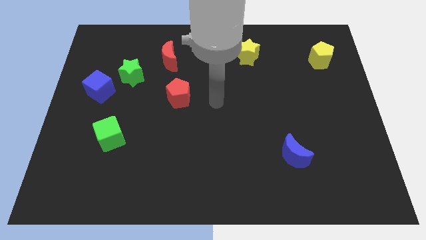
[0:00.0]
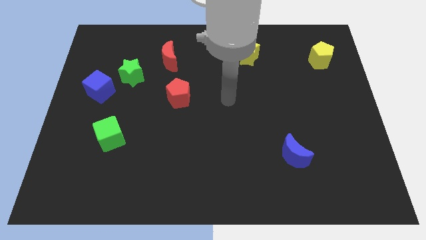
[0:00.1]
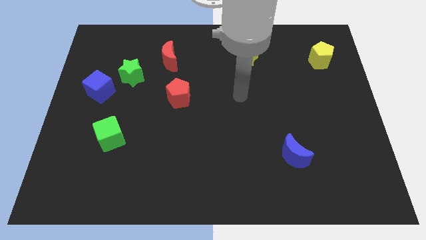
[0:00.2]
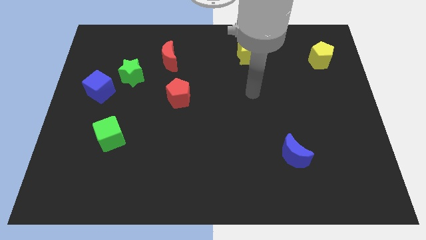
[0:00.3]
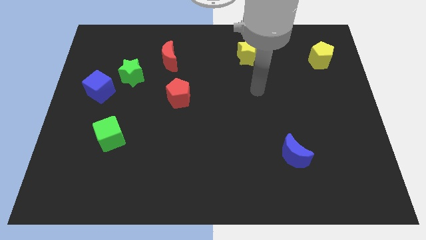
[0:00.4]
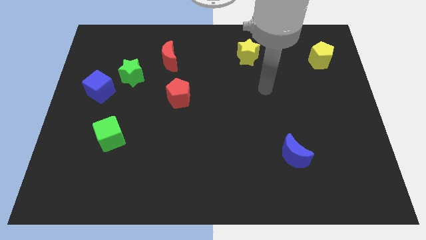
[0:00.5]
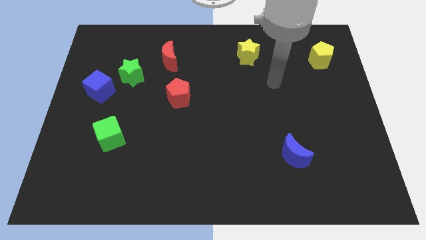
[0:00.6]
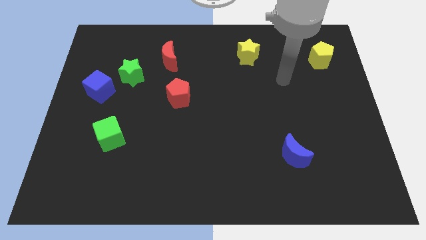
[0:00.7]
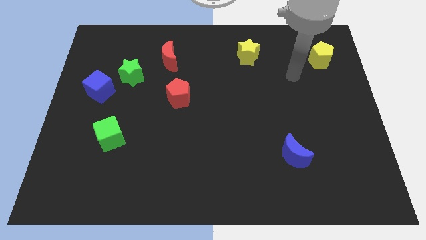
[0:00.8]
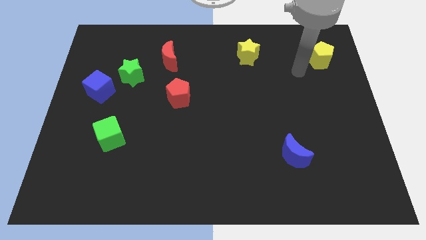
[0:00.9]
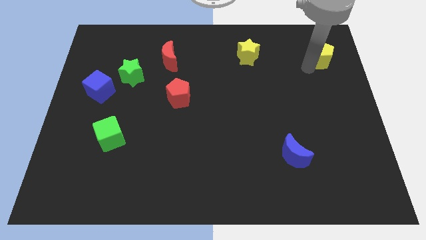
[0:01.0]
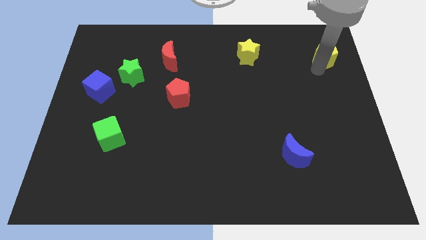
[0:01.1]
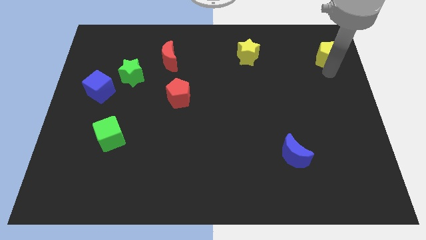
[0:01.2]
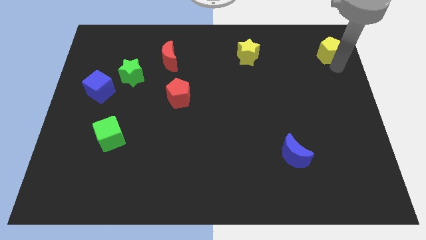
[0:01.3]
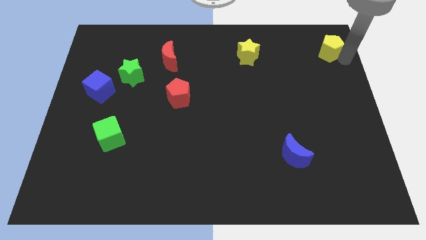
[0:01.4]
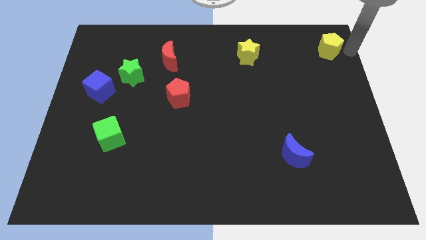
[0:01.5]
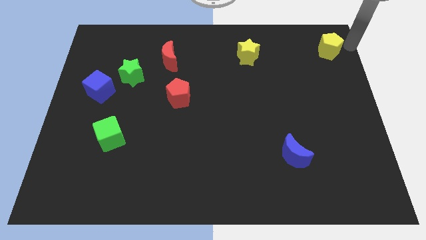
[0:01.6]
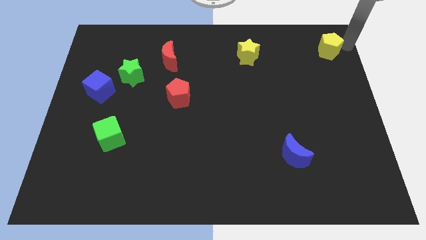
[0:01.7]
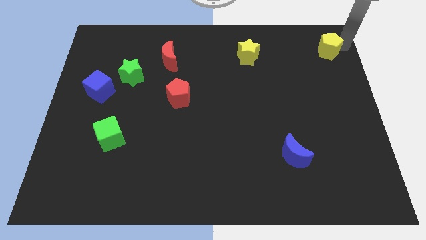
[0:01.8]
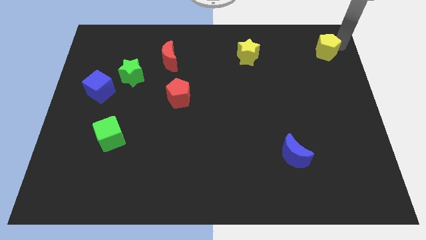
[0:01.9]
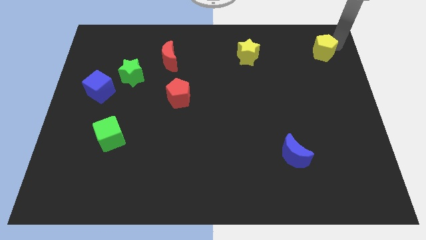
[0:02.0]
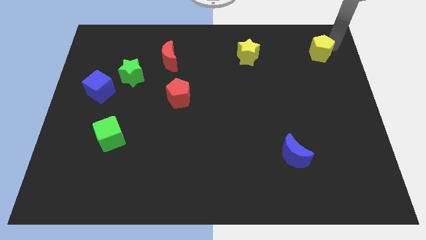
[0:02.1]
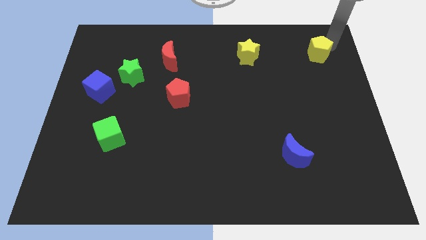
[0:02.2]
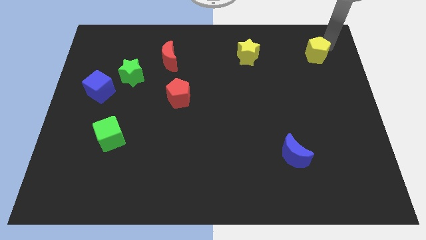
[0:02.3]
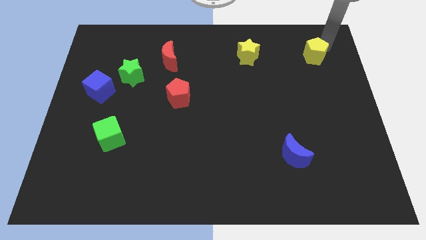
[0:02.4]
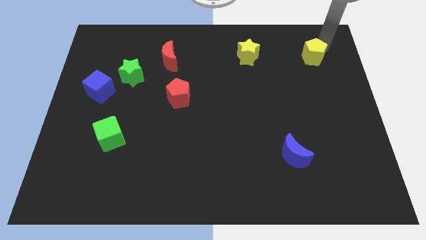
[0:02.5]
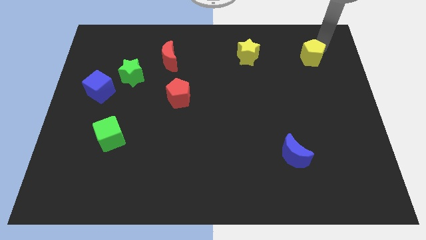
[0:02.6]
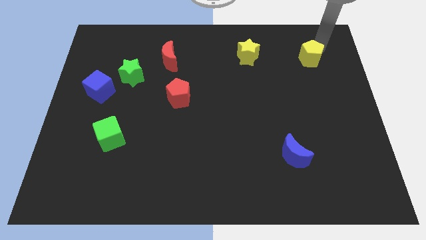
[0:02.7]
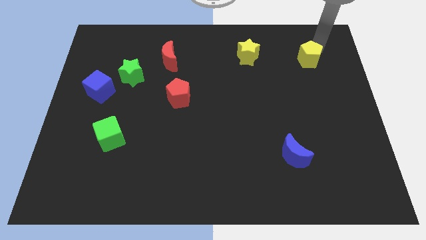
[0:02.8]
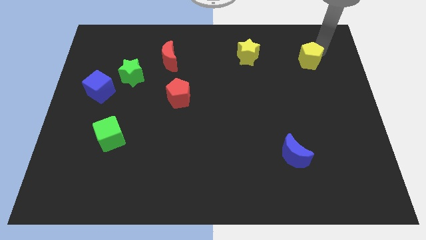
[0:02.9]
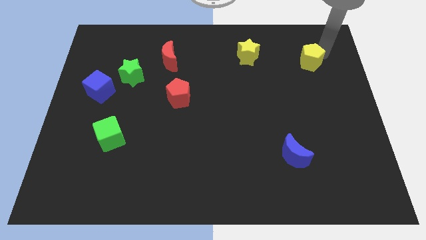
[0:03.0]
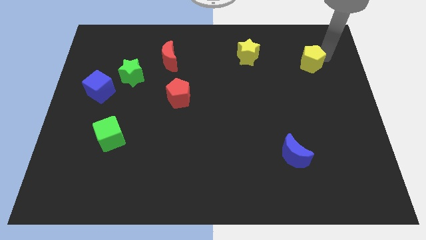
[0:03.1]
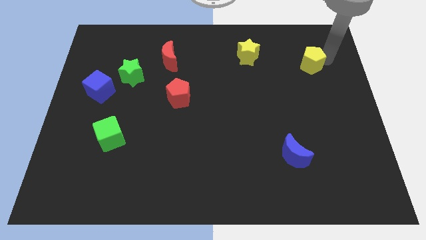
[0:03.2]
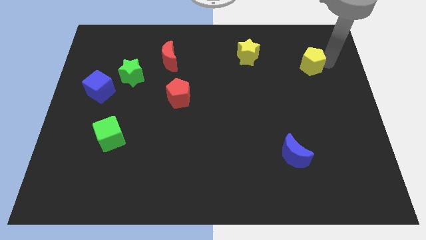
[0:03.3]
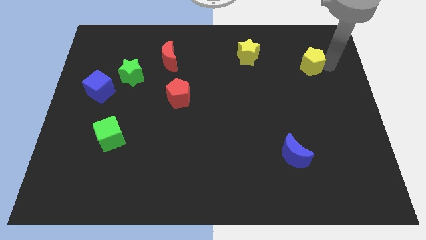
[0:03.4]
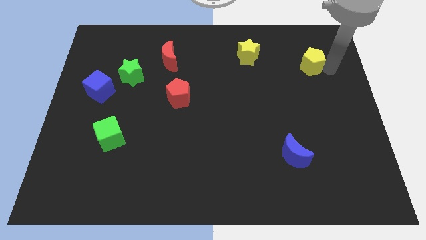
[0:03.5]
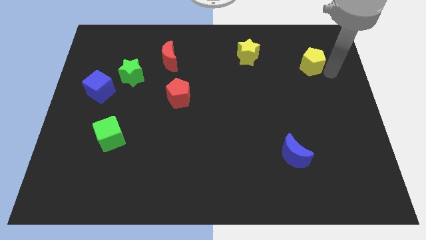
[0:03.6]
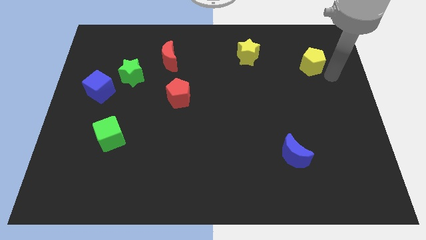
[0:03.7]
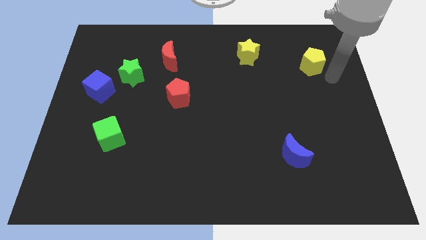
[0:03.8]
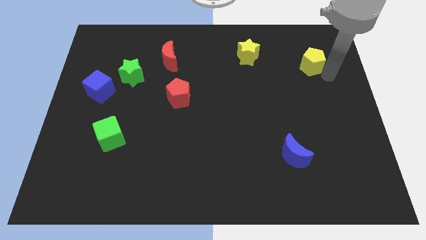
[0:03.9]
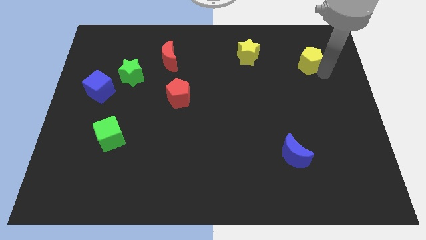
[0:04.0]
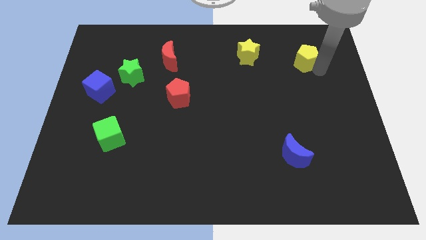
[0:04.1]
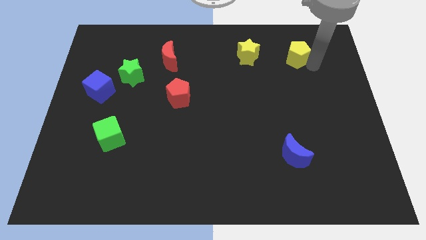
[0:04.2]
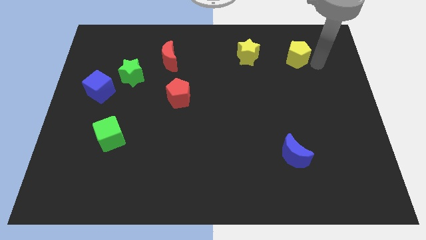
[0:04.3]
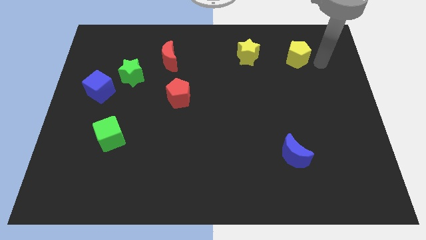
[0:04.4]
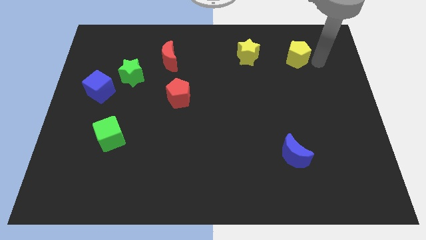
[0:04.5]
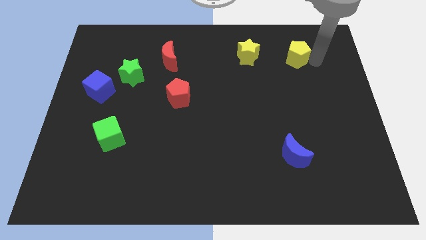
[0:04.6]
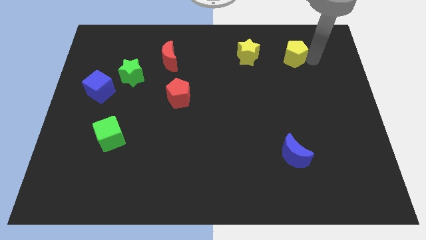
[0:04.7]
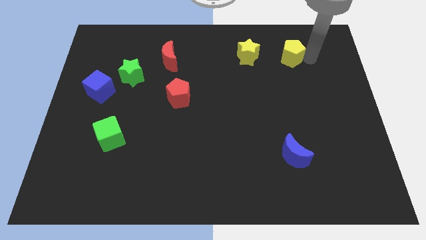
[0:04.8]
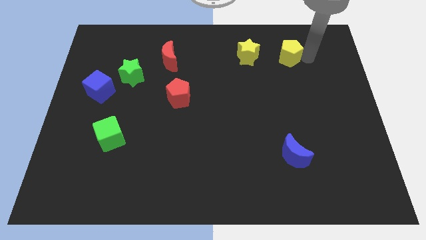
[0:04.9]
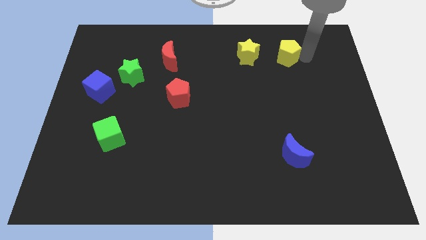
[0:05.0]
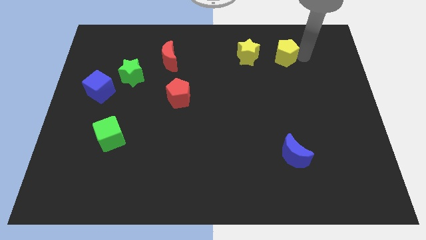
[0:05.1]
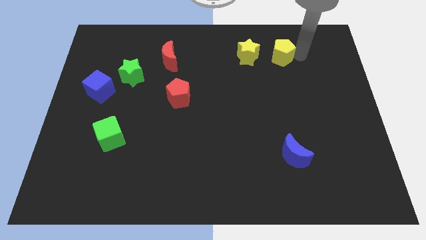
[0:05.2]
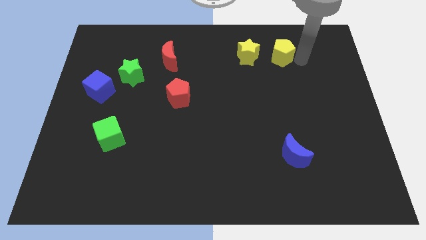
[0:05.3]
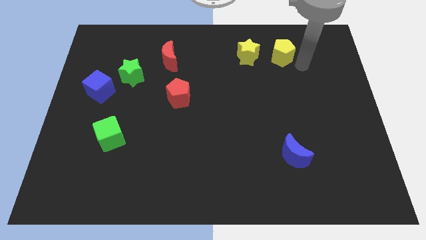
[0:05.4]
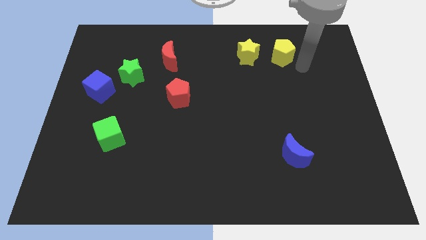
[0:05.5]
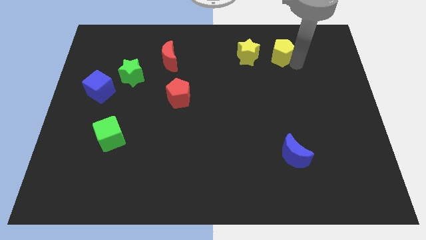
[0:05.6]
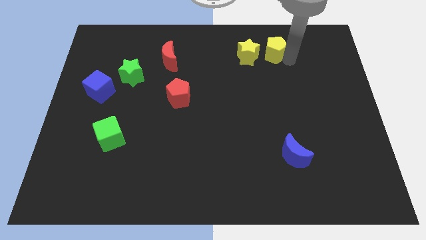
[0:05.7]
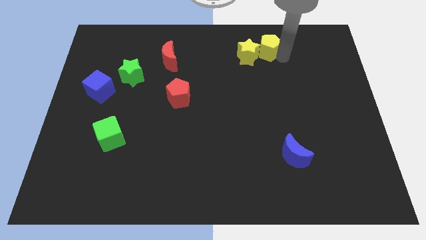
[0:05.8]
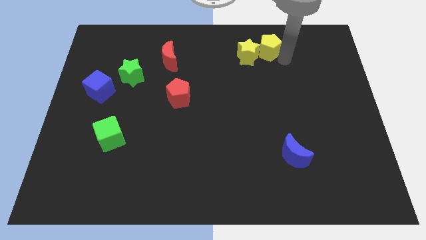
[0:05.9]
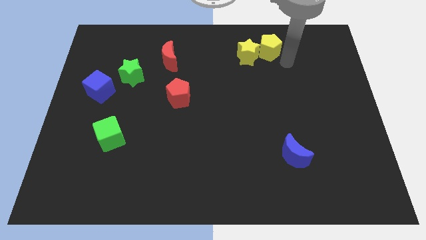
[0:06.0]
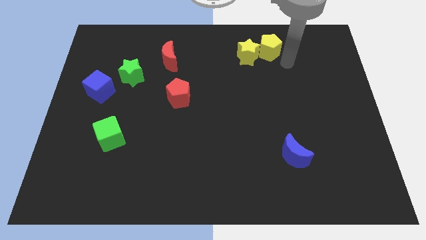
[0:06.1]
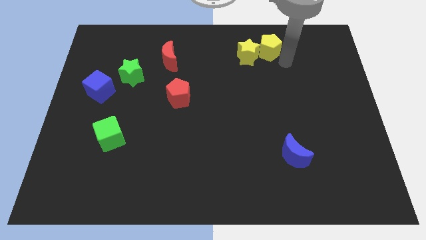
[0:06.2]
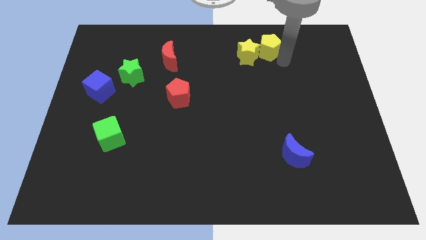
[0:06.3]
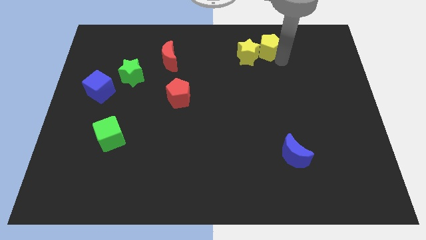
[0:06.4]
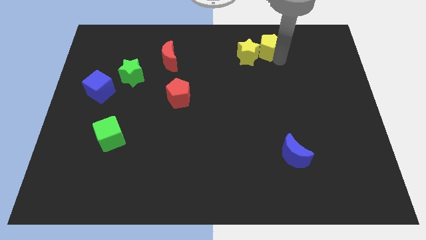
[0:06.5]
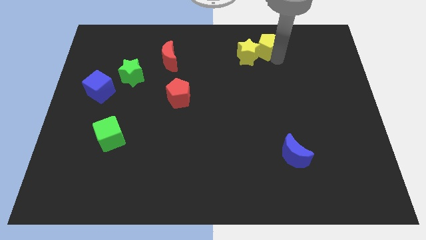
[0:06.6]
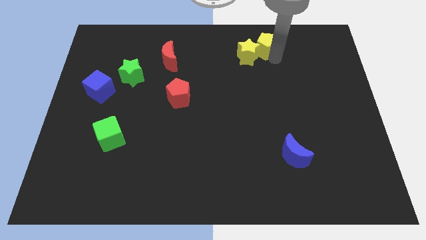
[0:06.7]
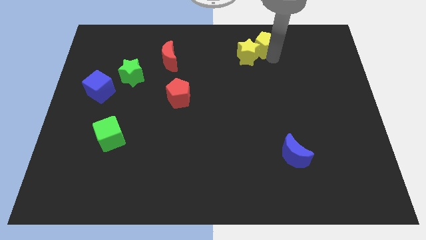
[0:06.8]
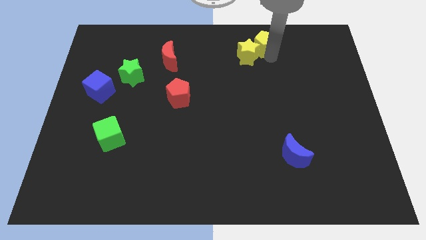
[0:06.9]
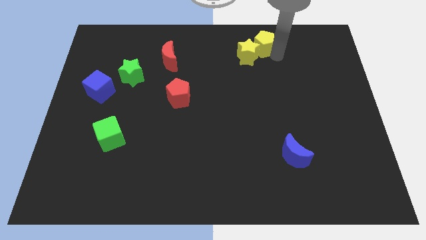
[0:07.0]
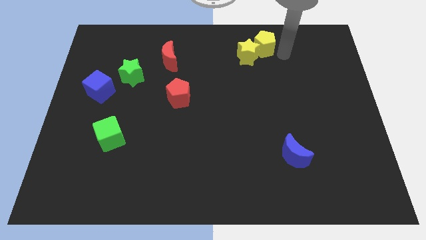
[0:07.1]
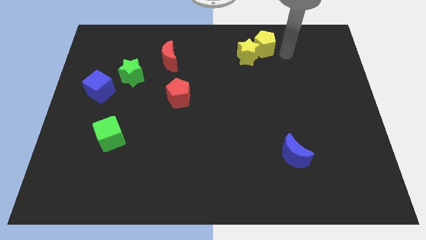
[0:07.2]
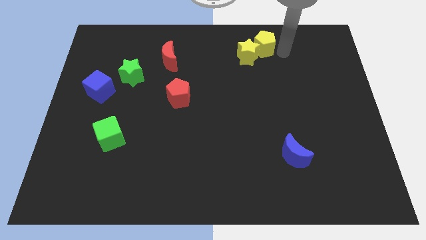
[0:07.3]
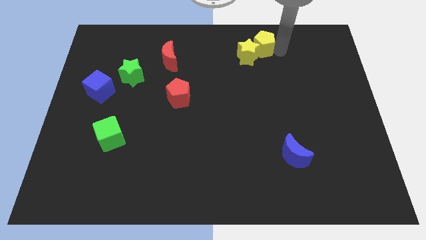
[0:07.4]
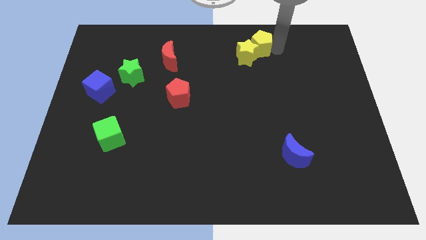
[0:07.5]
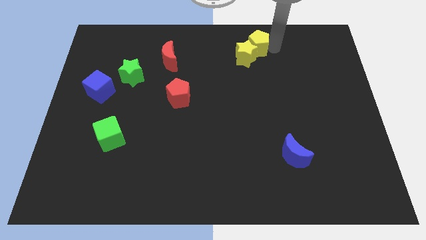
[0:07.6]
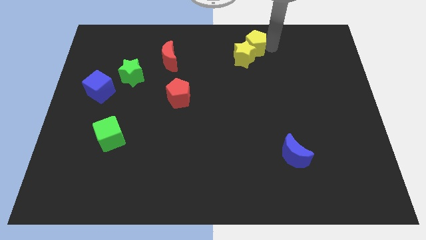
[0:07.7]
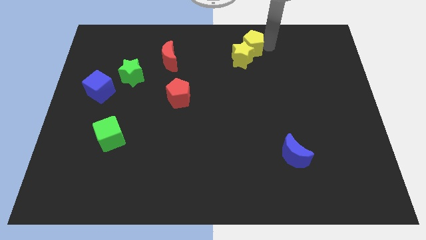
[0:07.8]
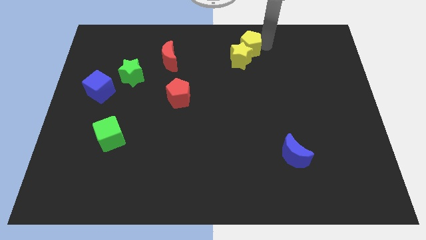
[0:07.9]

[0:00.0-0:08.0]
push the yellow pentagon to the top side
